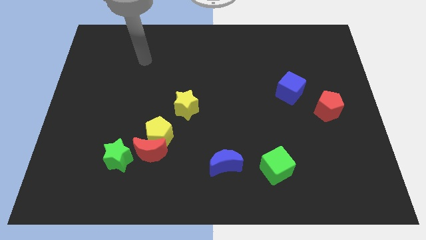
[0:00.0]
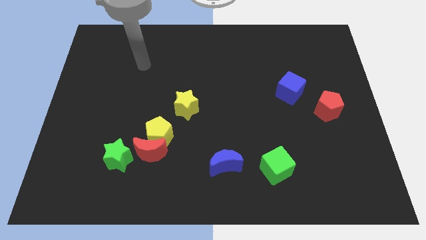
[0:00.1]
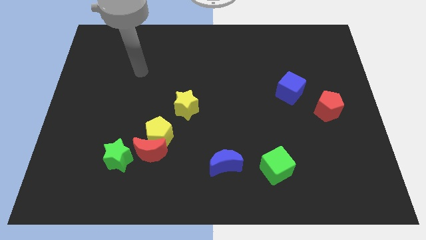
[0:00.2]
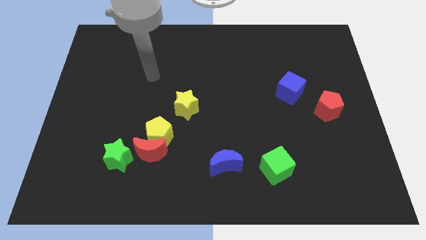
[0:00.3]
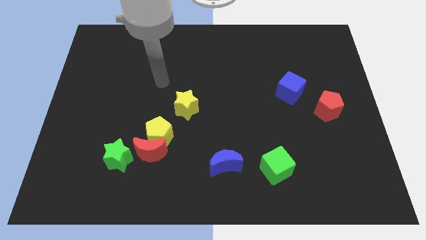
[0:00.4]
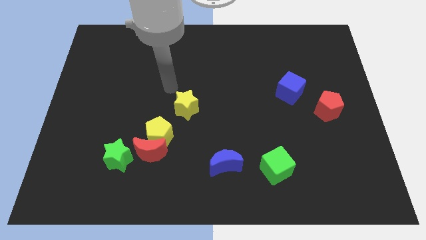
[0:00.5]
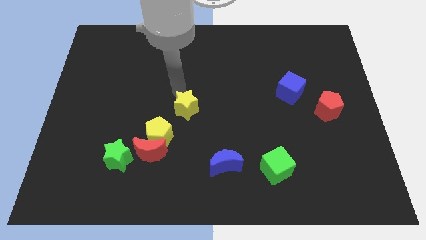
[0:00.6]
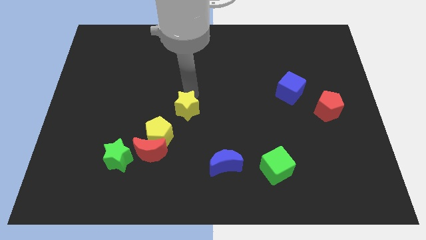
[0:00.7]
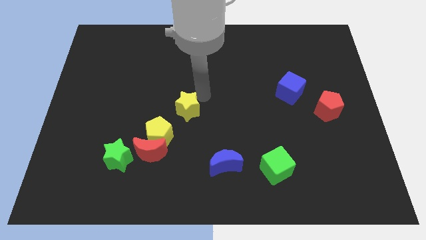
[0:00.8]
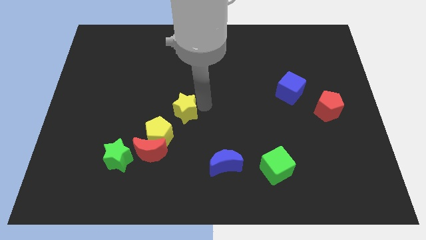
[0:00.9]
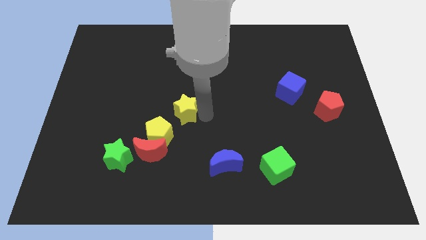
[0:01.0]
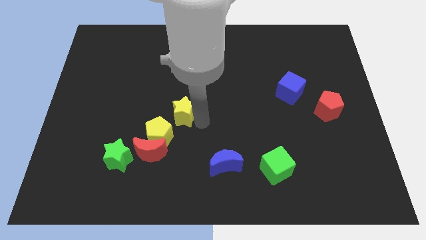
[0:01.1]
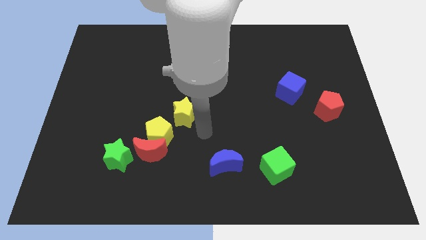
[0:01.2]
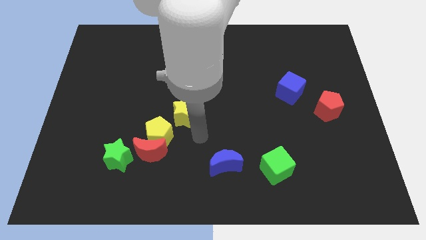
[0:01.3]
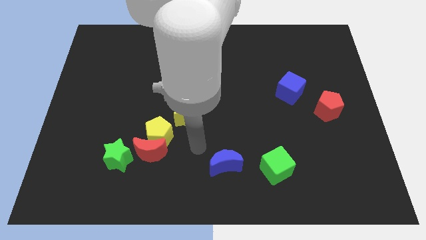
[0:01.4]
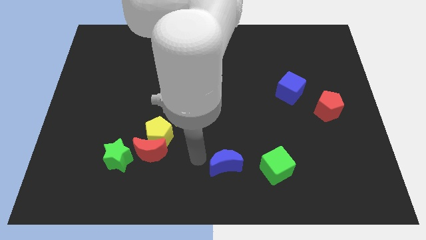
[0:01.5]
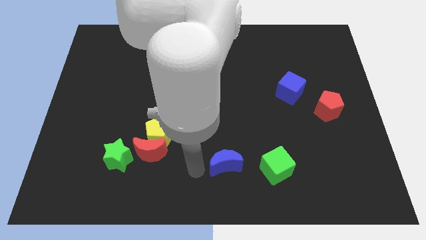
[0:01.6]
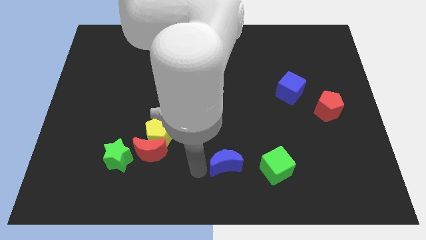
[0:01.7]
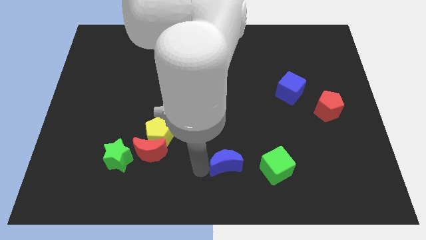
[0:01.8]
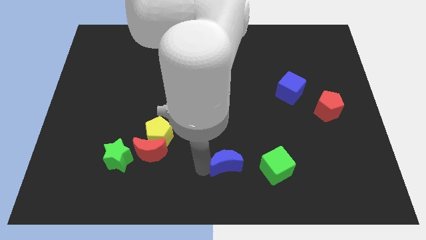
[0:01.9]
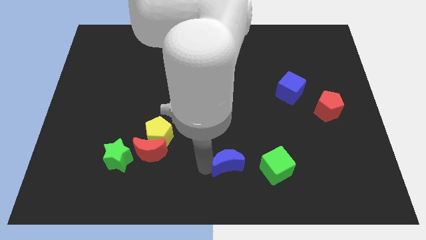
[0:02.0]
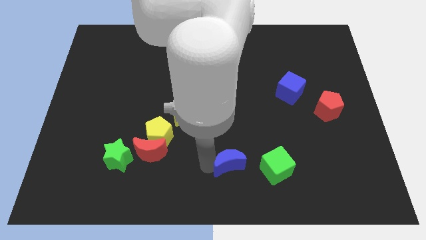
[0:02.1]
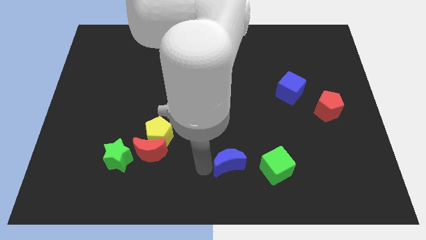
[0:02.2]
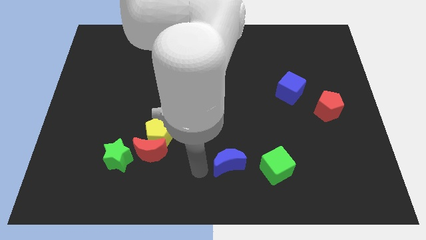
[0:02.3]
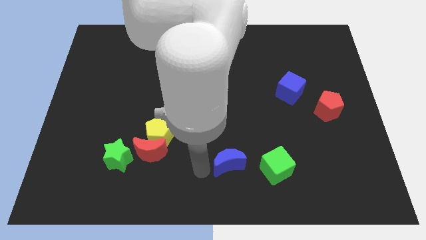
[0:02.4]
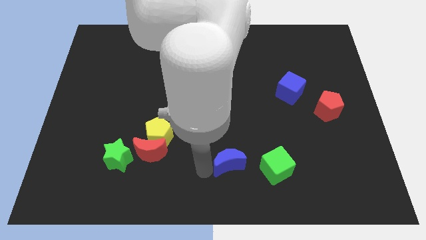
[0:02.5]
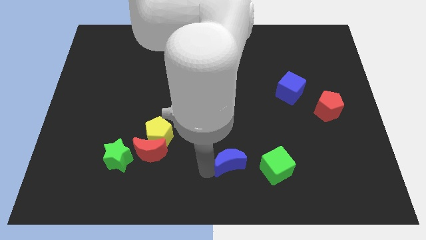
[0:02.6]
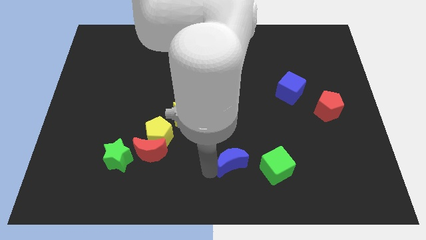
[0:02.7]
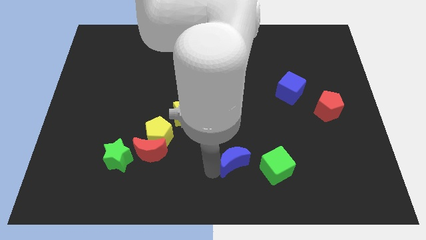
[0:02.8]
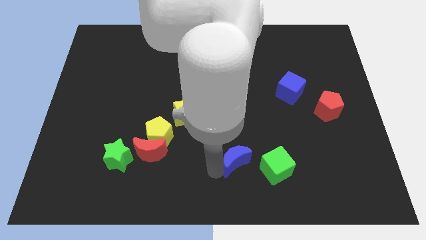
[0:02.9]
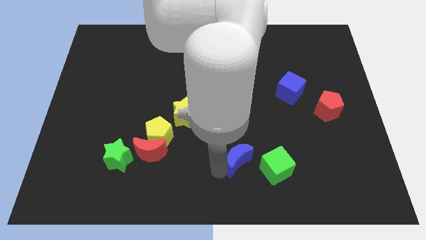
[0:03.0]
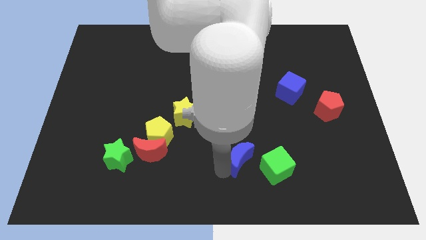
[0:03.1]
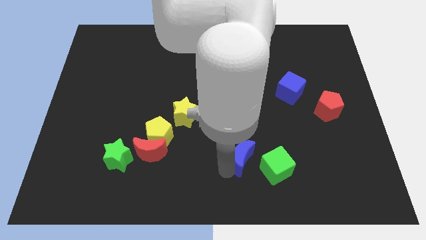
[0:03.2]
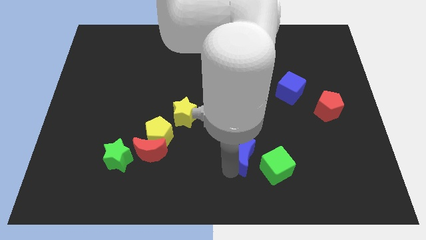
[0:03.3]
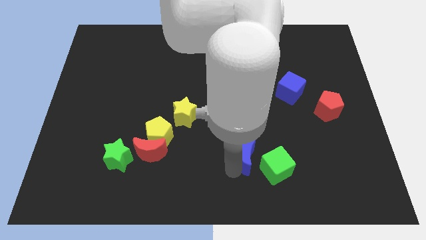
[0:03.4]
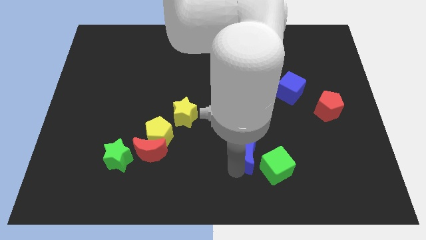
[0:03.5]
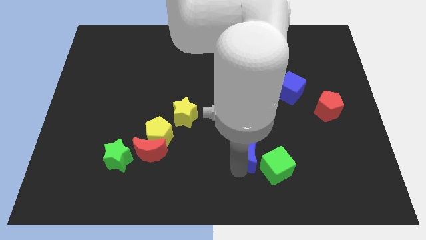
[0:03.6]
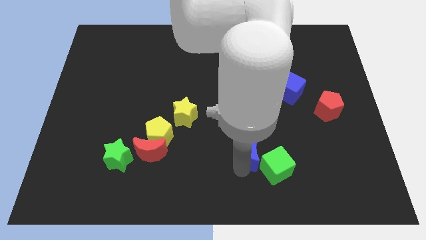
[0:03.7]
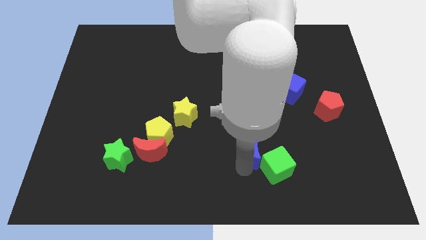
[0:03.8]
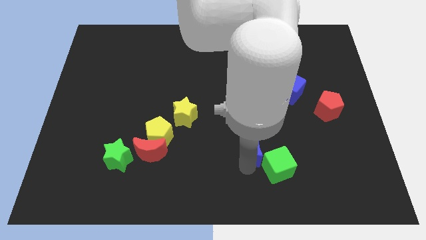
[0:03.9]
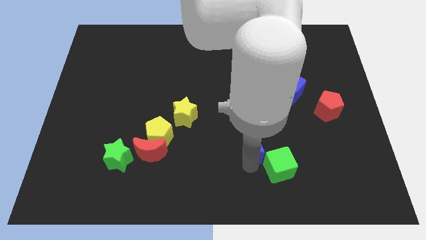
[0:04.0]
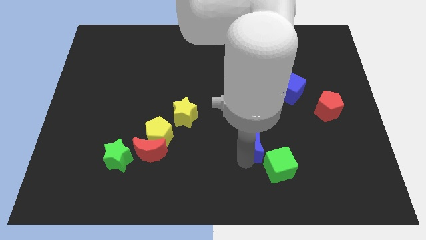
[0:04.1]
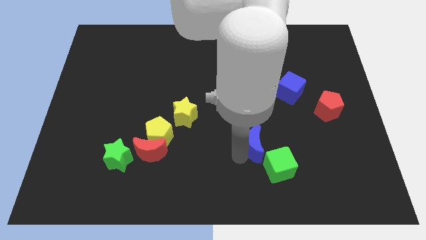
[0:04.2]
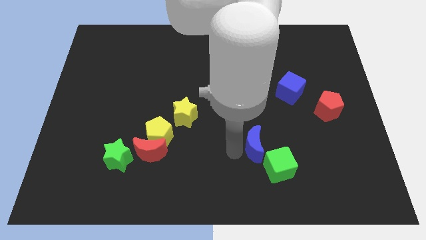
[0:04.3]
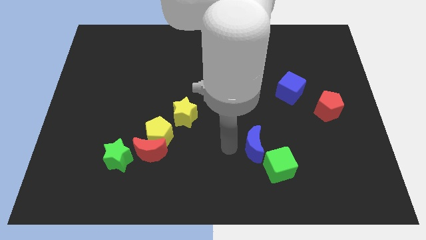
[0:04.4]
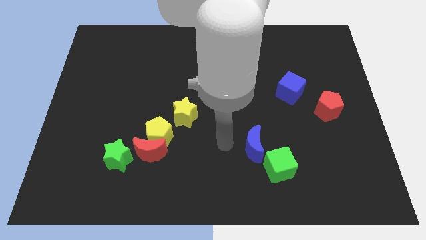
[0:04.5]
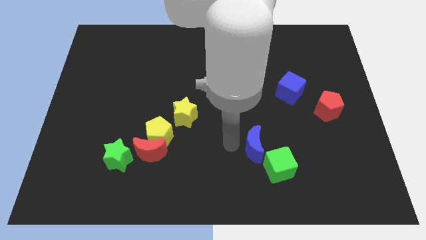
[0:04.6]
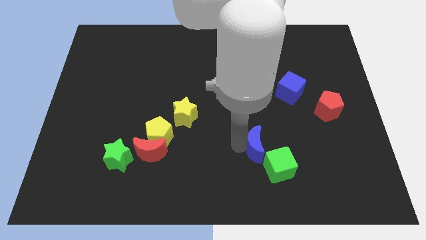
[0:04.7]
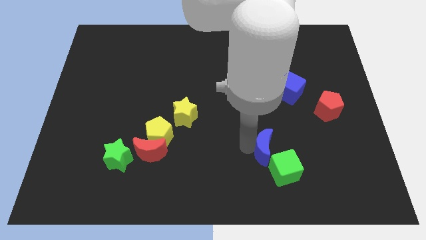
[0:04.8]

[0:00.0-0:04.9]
slide the blue moon somewhat to the right

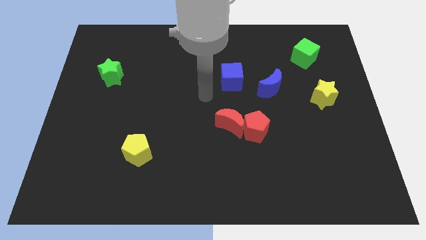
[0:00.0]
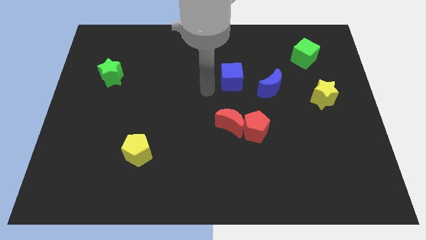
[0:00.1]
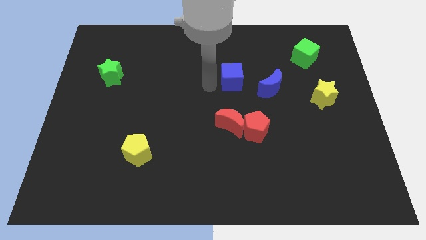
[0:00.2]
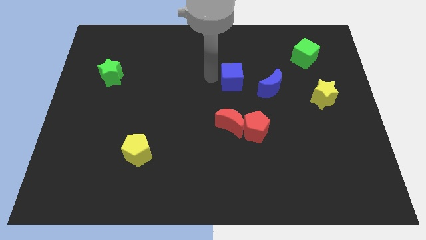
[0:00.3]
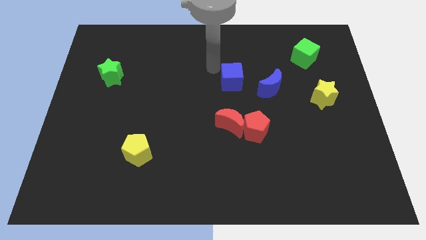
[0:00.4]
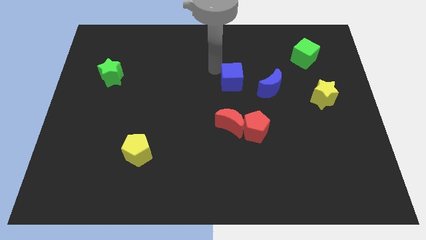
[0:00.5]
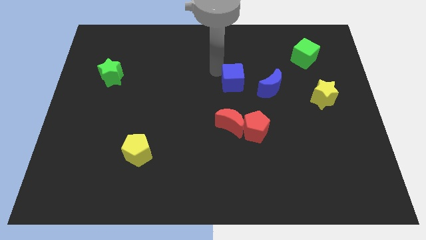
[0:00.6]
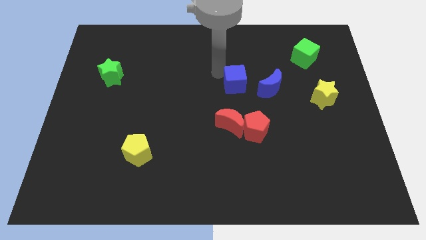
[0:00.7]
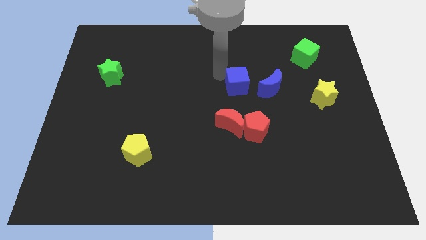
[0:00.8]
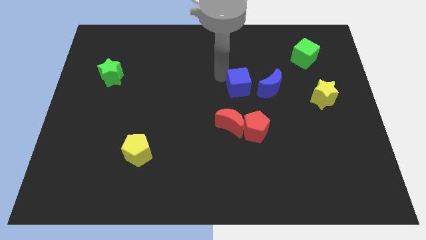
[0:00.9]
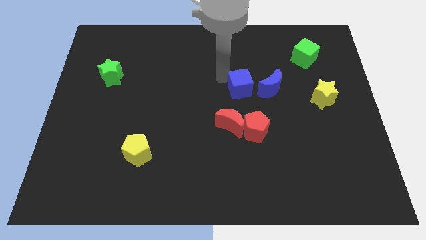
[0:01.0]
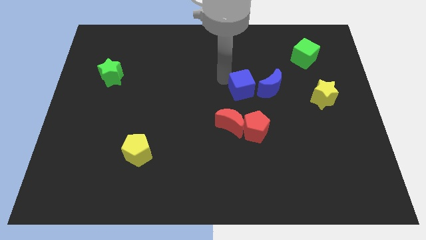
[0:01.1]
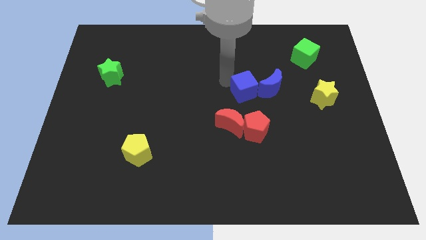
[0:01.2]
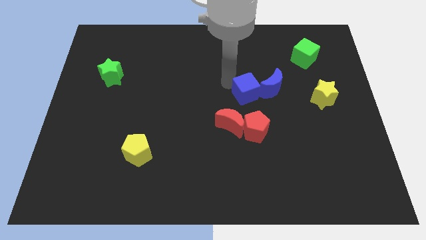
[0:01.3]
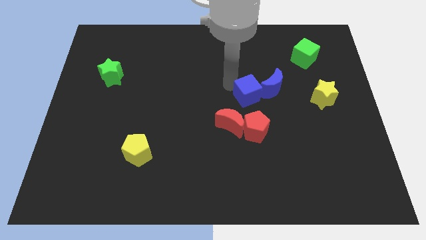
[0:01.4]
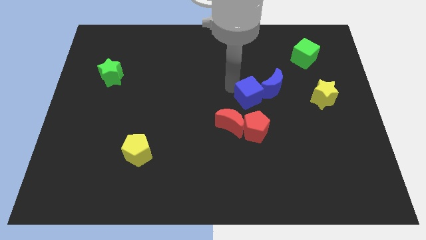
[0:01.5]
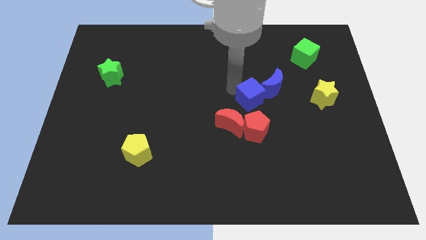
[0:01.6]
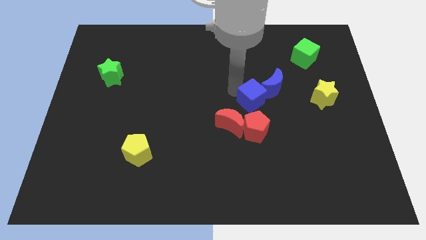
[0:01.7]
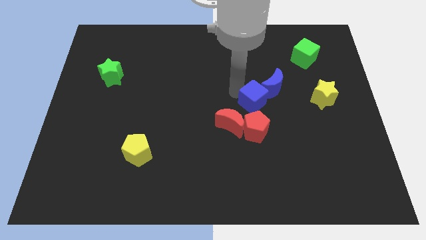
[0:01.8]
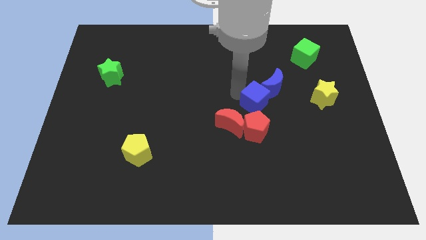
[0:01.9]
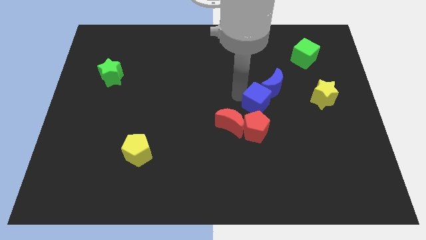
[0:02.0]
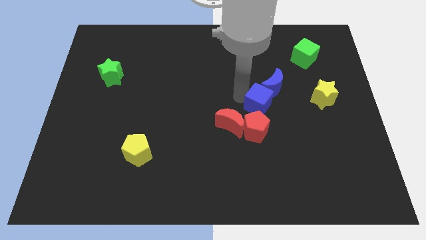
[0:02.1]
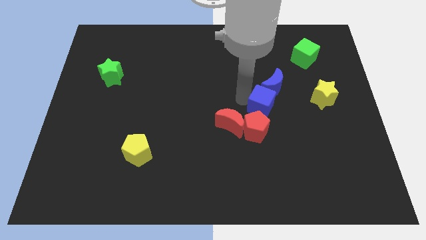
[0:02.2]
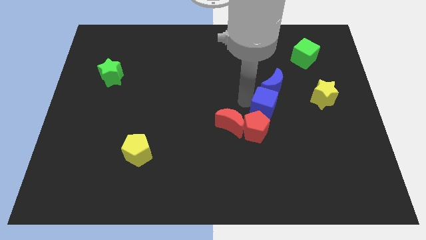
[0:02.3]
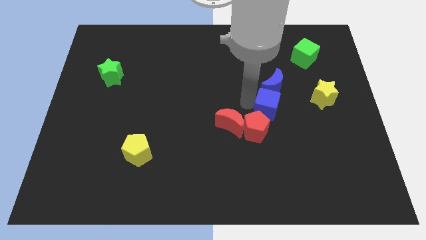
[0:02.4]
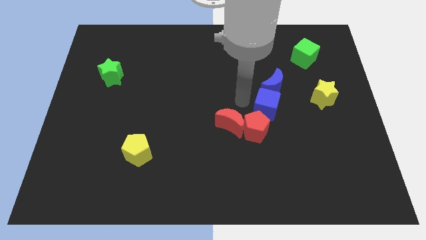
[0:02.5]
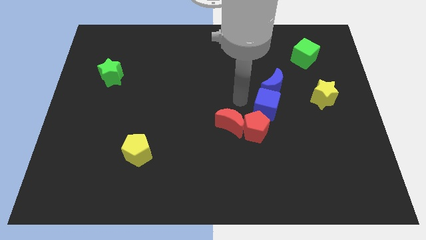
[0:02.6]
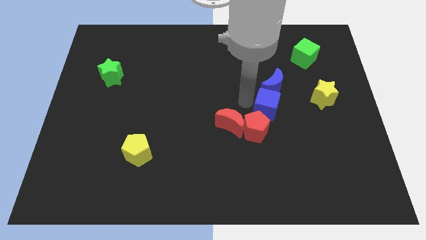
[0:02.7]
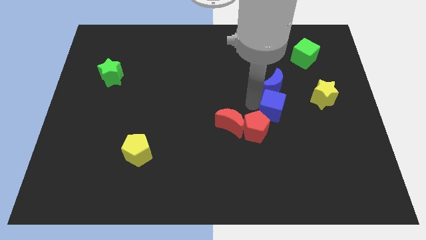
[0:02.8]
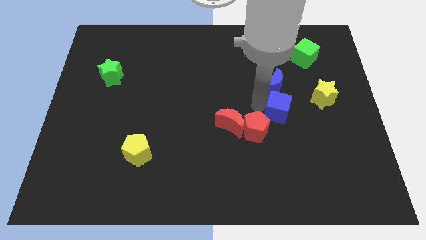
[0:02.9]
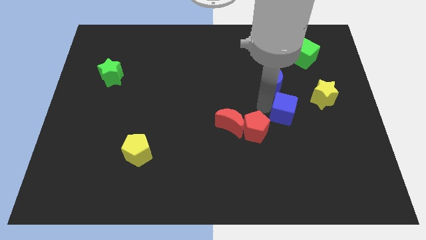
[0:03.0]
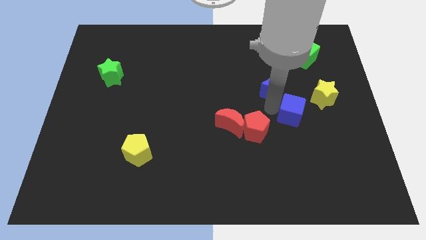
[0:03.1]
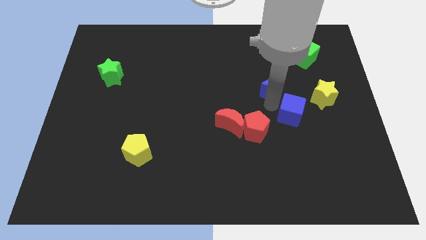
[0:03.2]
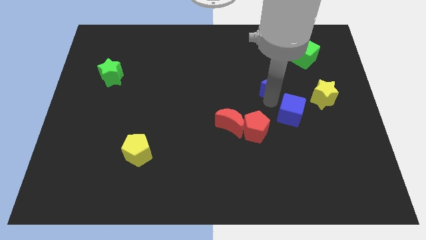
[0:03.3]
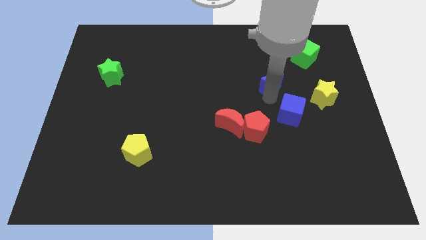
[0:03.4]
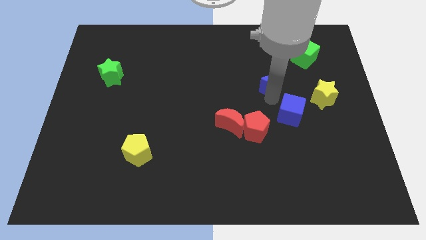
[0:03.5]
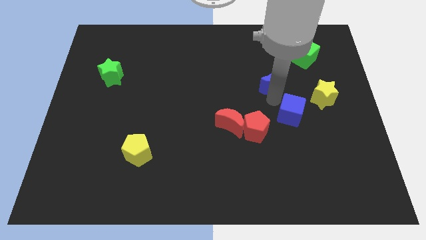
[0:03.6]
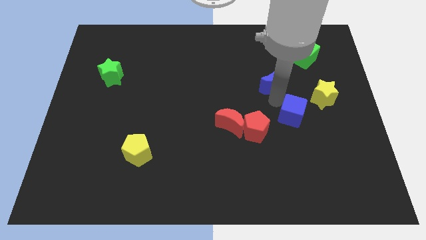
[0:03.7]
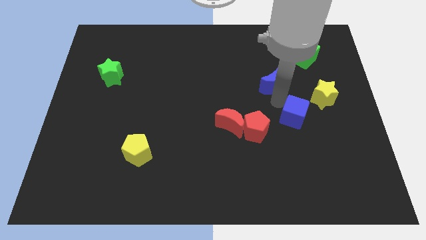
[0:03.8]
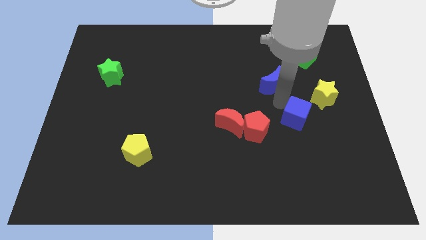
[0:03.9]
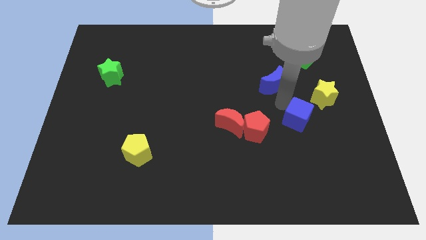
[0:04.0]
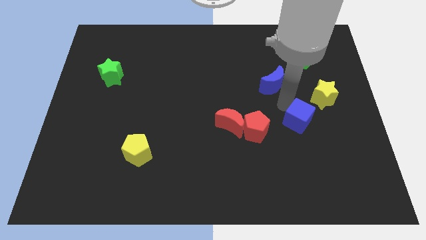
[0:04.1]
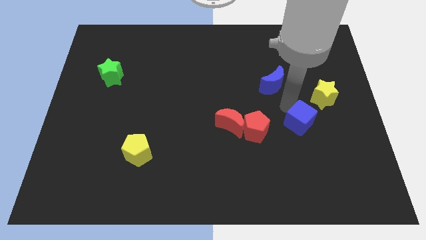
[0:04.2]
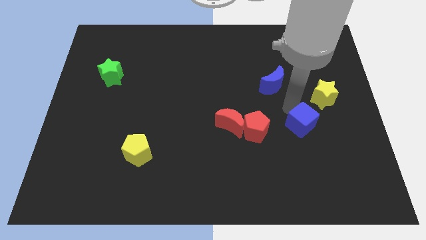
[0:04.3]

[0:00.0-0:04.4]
slide the blue cube down and right
